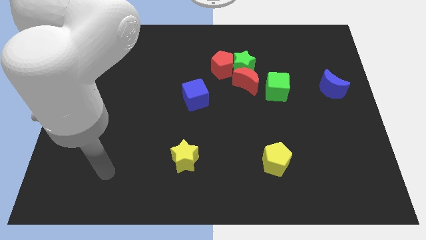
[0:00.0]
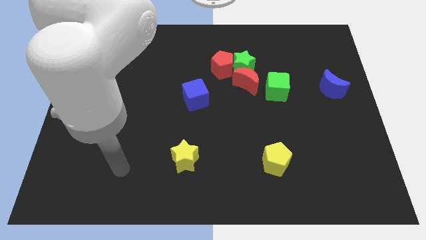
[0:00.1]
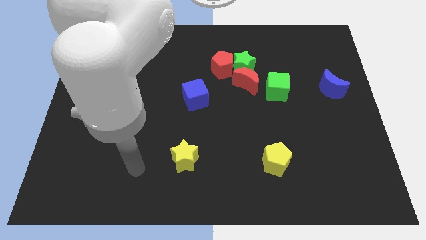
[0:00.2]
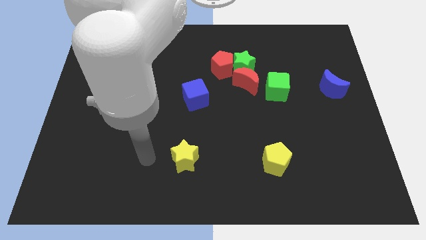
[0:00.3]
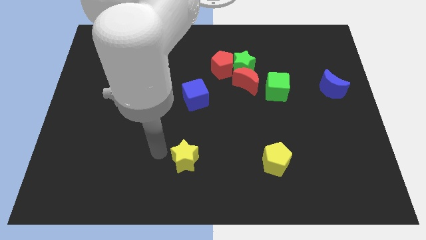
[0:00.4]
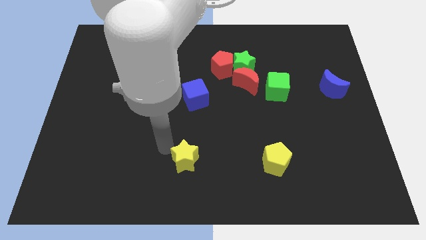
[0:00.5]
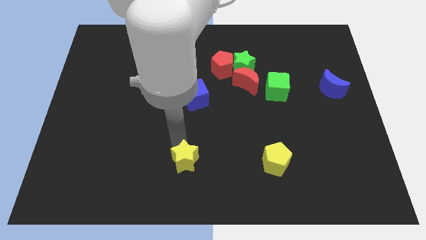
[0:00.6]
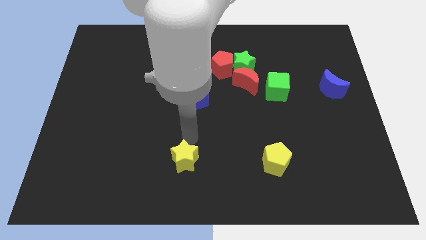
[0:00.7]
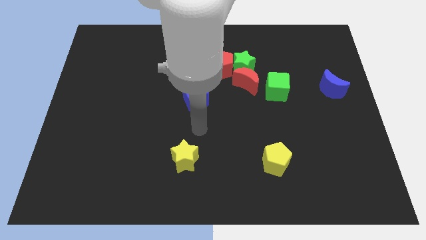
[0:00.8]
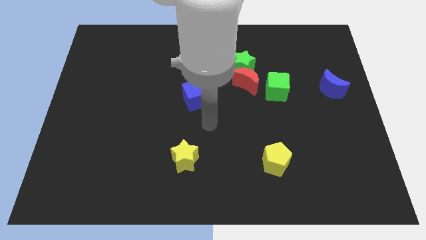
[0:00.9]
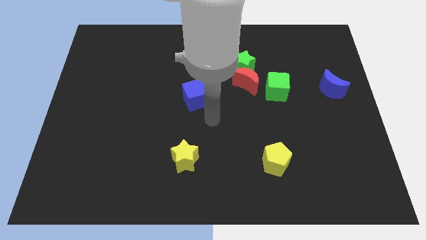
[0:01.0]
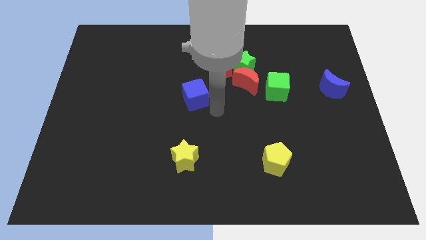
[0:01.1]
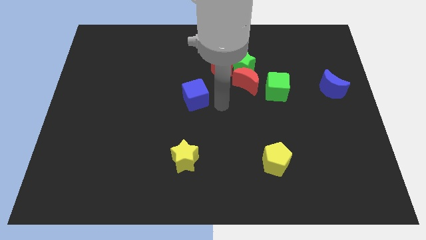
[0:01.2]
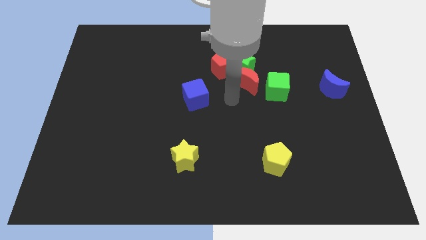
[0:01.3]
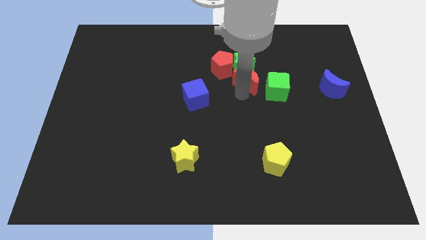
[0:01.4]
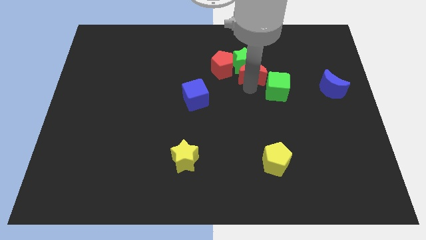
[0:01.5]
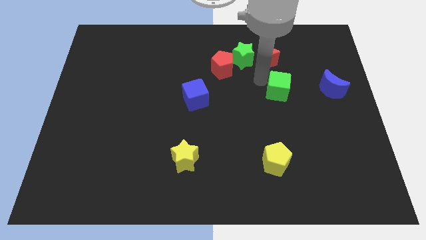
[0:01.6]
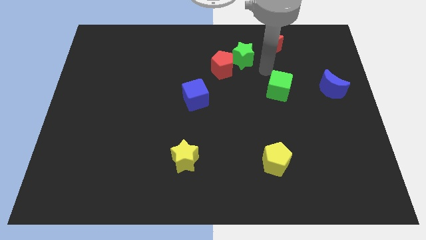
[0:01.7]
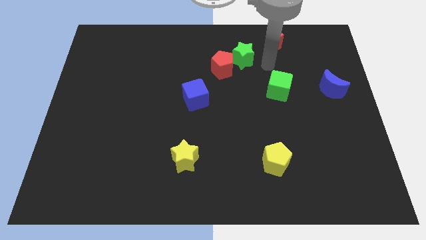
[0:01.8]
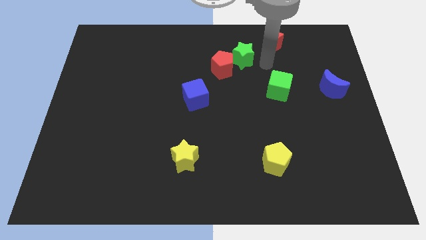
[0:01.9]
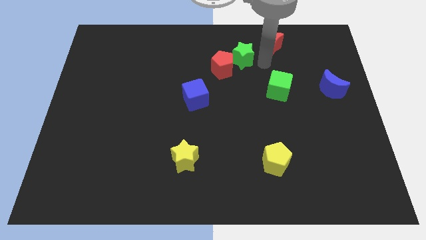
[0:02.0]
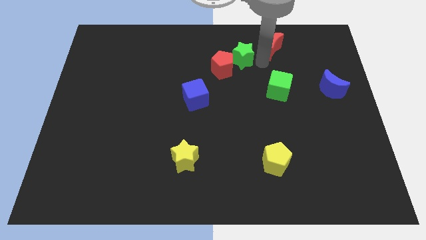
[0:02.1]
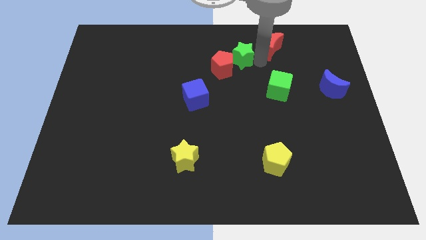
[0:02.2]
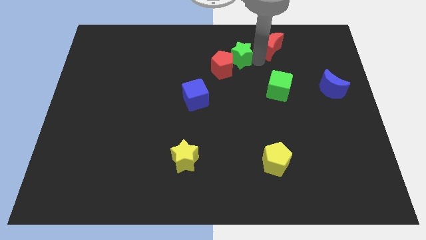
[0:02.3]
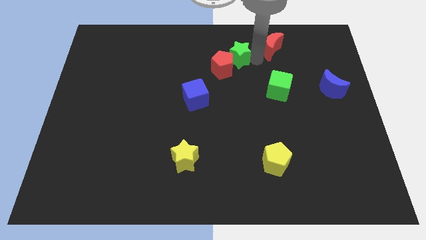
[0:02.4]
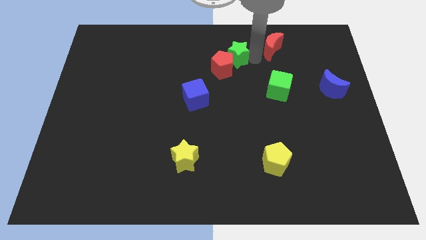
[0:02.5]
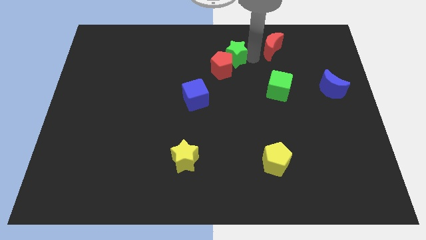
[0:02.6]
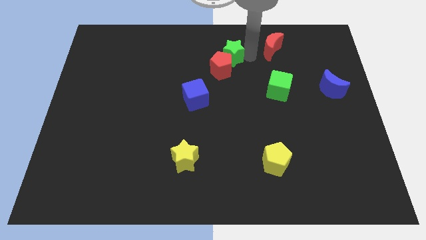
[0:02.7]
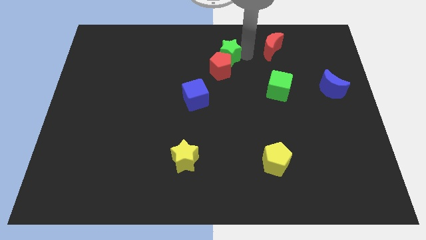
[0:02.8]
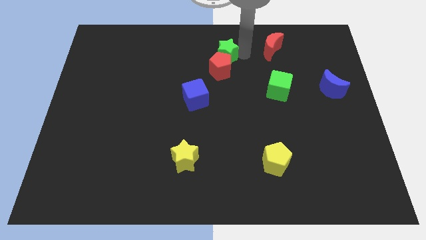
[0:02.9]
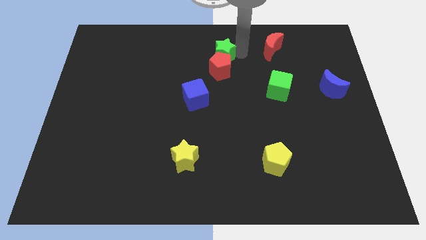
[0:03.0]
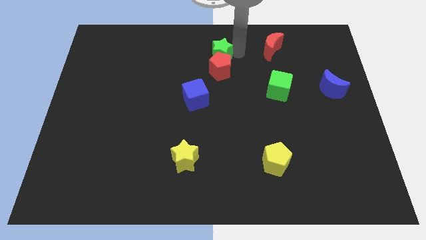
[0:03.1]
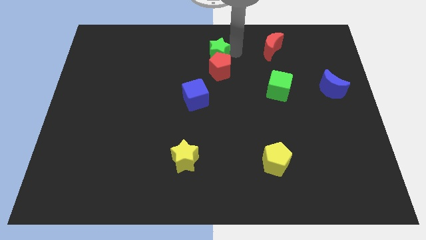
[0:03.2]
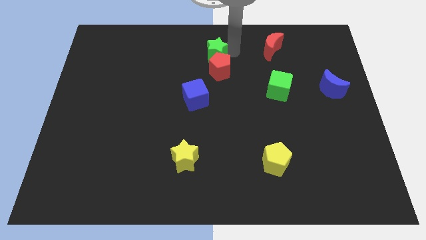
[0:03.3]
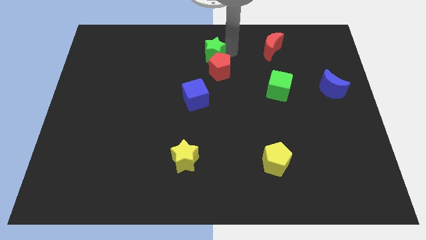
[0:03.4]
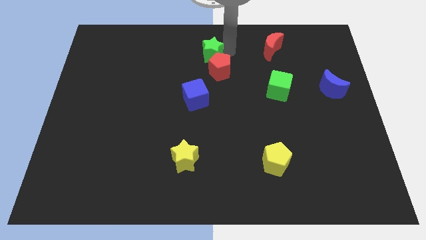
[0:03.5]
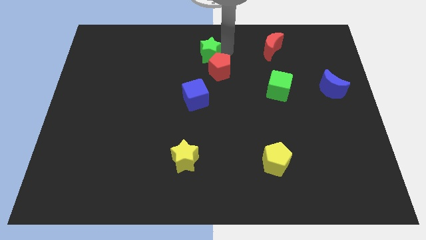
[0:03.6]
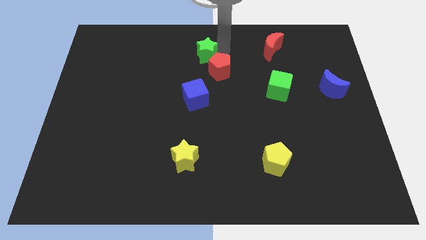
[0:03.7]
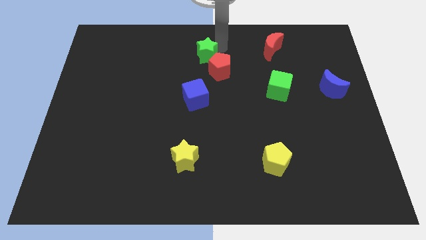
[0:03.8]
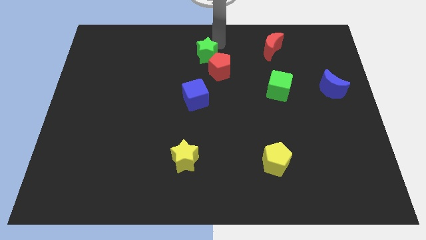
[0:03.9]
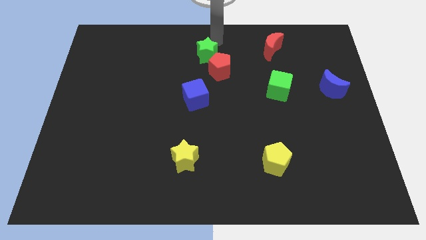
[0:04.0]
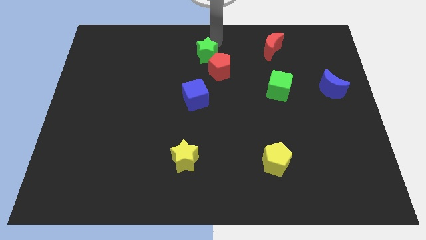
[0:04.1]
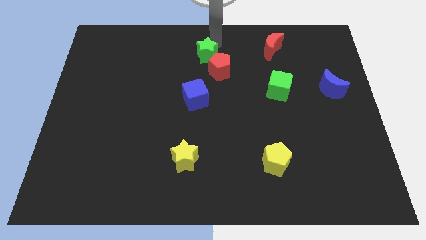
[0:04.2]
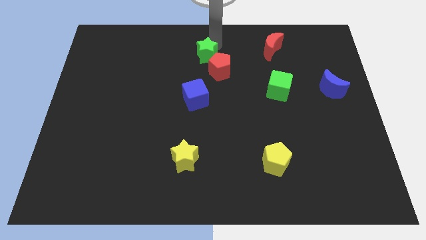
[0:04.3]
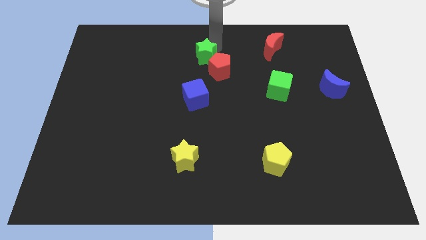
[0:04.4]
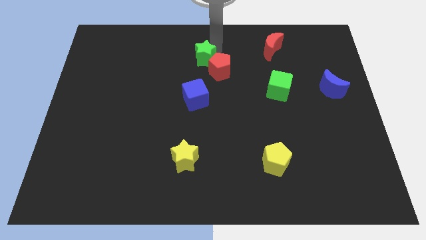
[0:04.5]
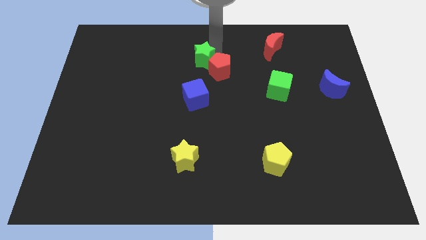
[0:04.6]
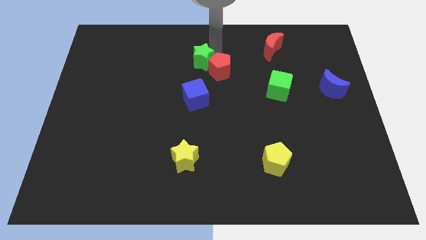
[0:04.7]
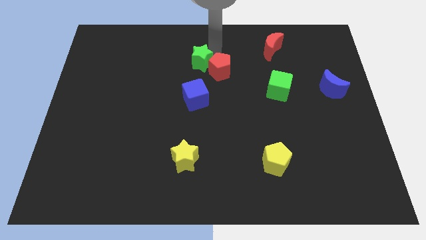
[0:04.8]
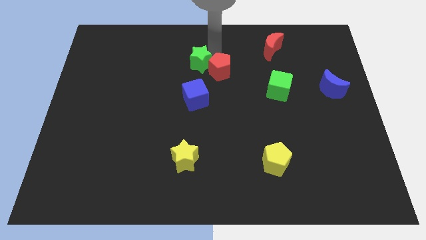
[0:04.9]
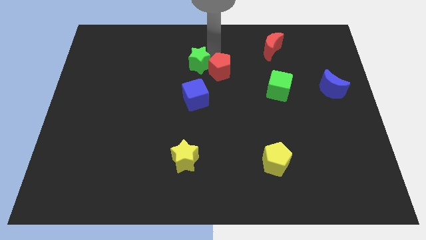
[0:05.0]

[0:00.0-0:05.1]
put the green star to the middle
